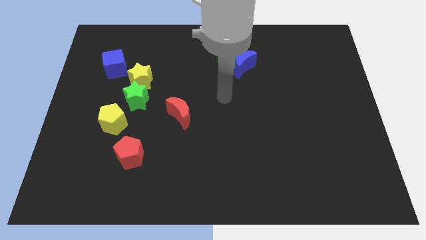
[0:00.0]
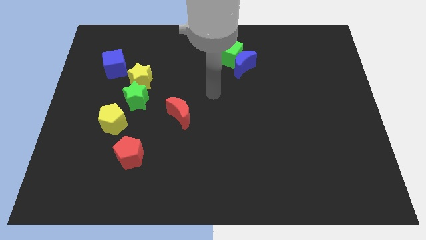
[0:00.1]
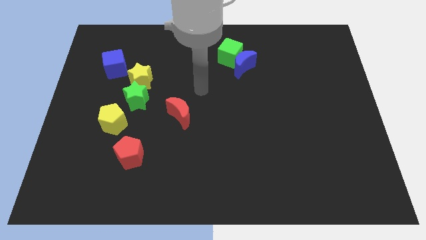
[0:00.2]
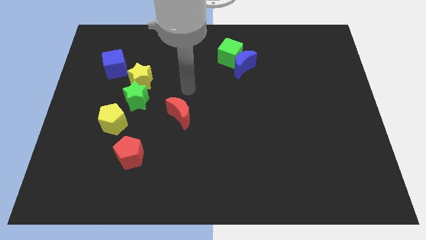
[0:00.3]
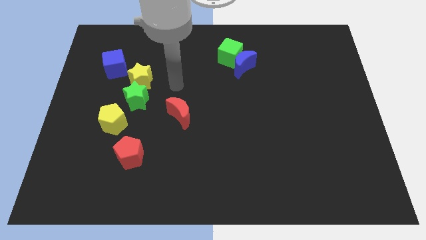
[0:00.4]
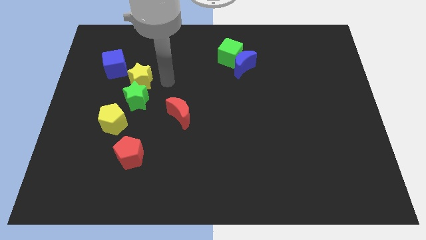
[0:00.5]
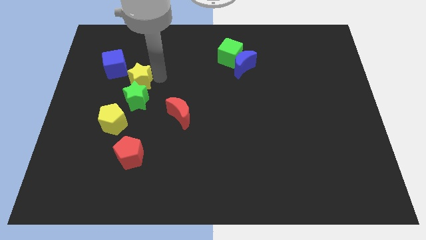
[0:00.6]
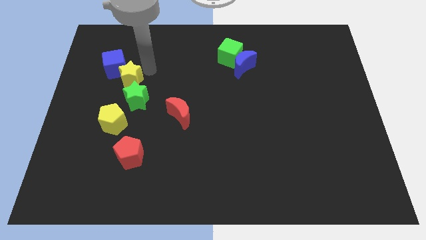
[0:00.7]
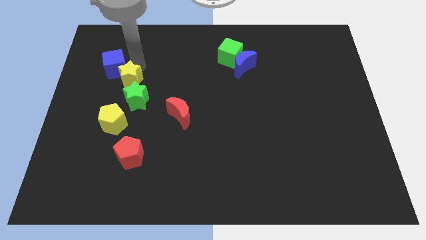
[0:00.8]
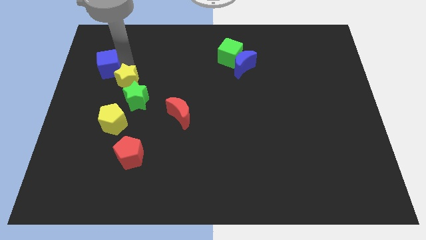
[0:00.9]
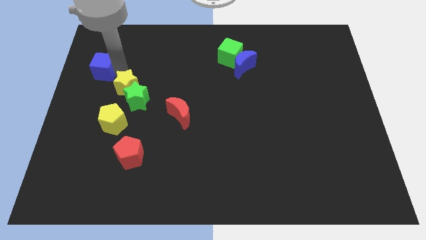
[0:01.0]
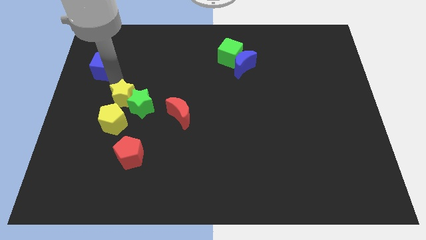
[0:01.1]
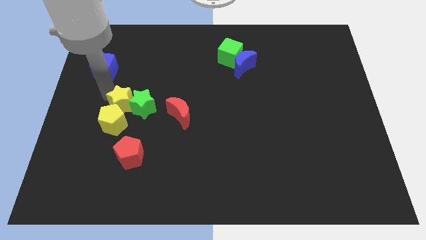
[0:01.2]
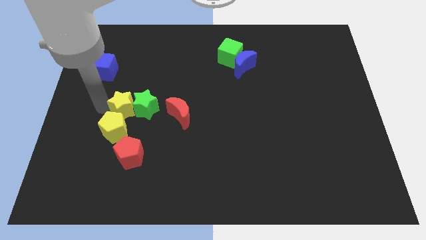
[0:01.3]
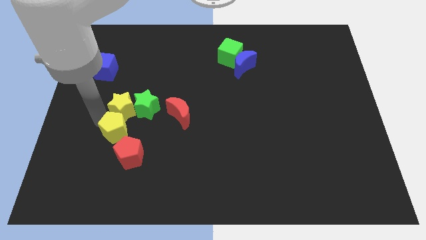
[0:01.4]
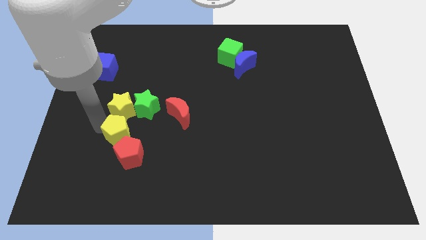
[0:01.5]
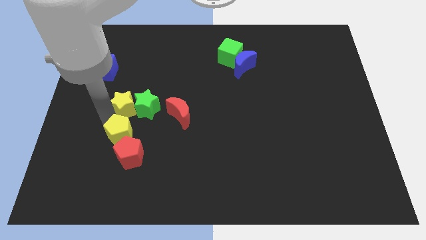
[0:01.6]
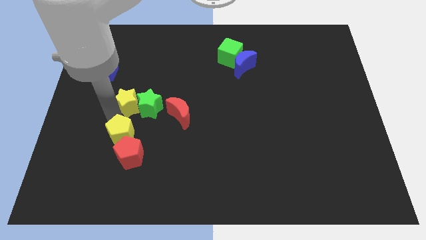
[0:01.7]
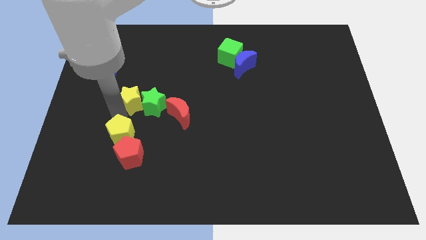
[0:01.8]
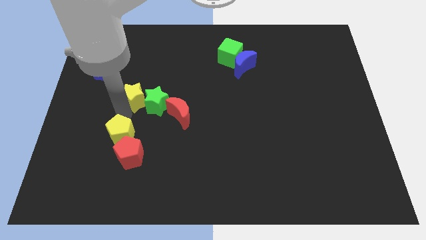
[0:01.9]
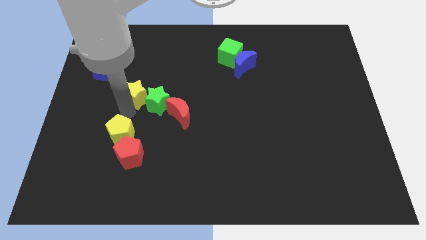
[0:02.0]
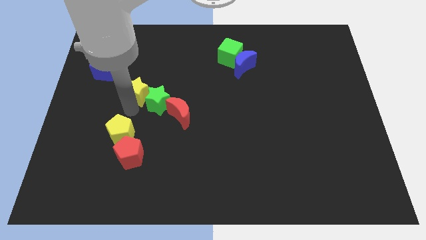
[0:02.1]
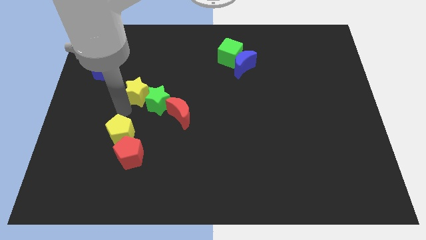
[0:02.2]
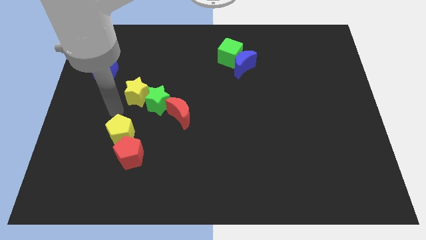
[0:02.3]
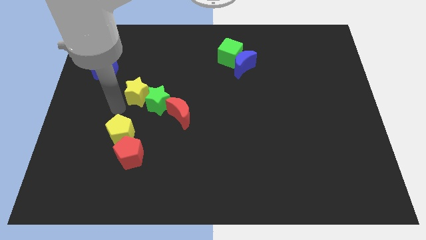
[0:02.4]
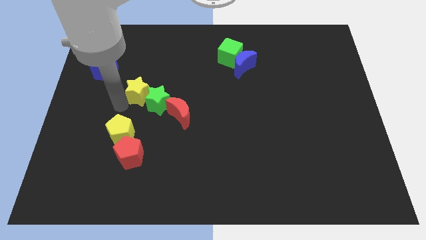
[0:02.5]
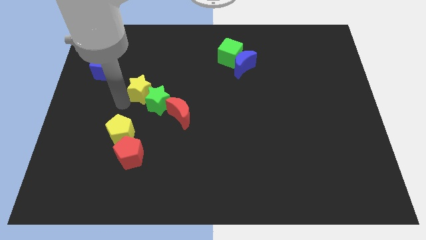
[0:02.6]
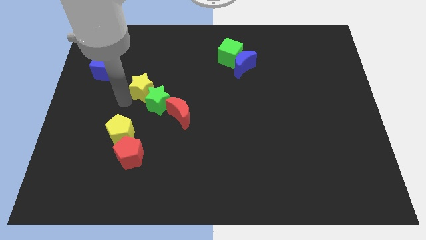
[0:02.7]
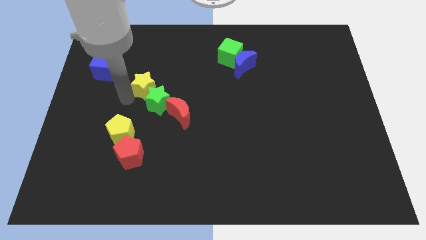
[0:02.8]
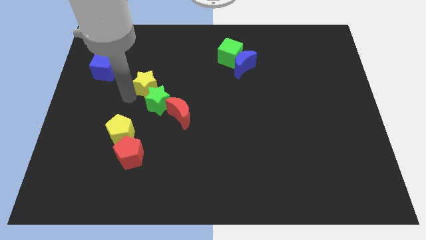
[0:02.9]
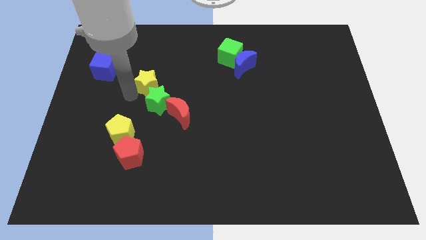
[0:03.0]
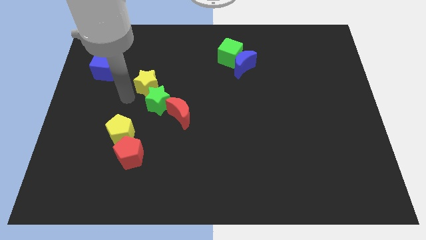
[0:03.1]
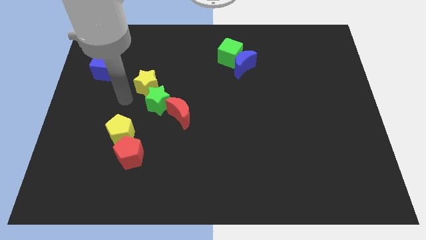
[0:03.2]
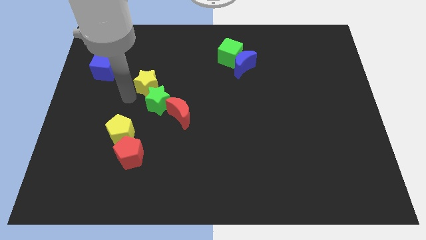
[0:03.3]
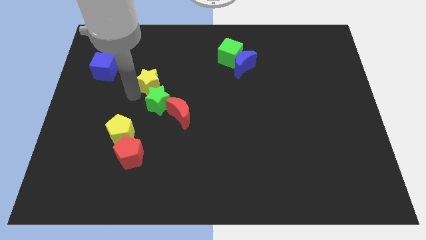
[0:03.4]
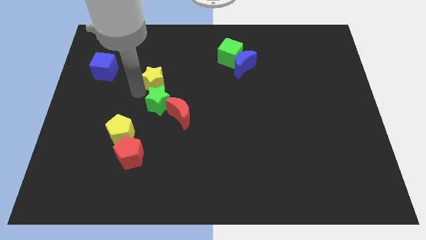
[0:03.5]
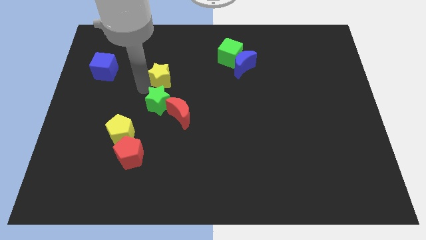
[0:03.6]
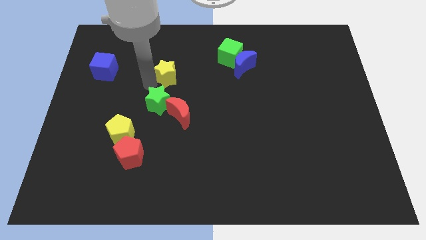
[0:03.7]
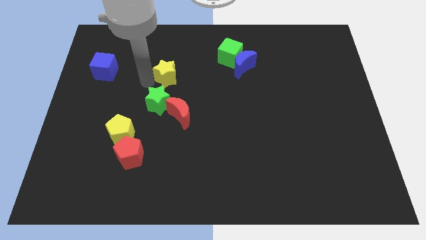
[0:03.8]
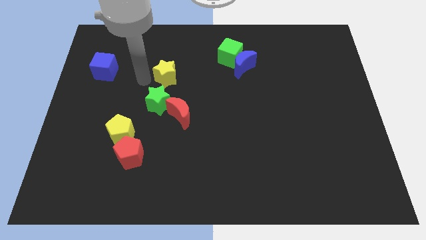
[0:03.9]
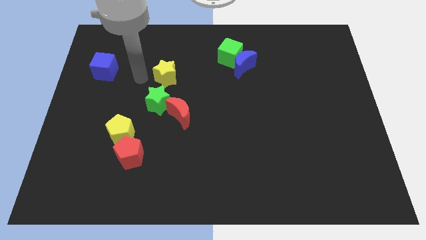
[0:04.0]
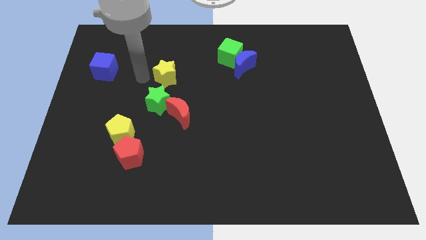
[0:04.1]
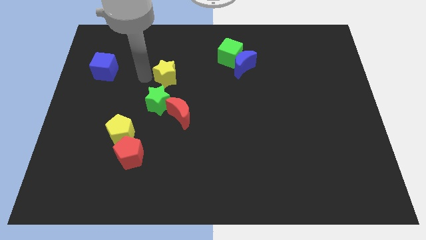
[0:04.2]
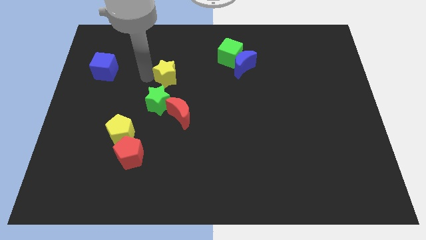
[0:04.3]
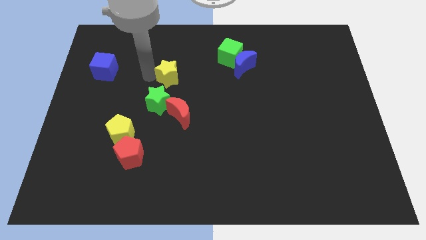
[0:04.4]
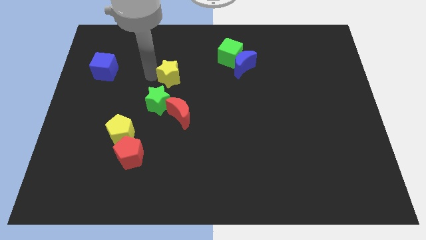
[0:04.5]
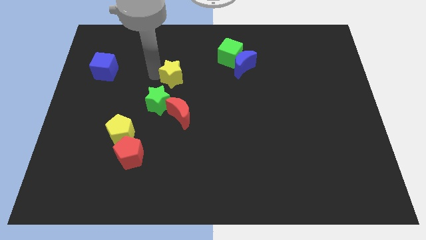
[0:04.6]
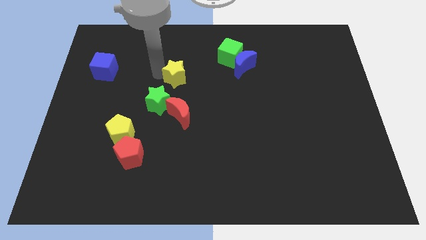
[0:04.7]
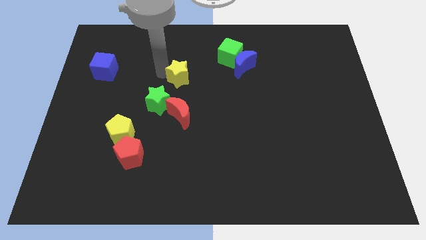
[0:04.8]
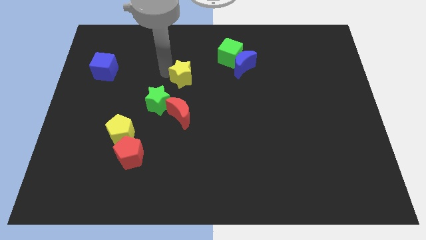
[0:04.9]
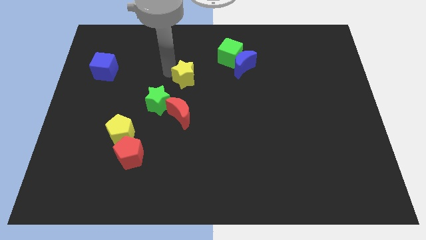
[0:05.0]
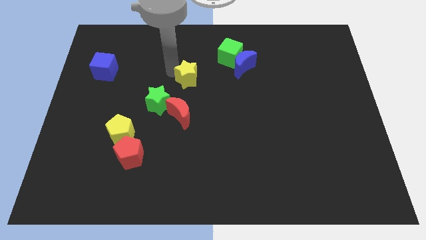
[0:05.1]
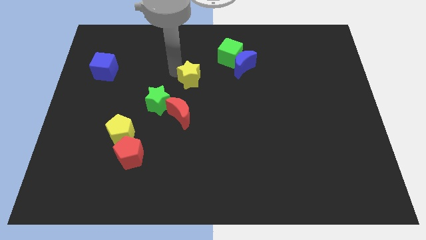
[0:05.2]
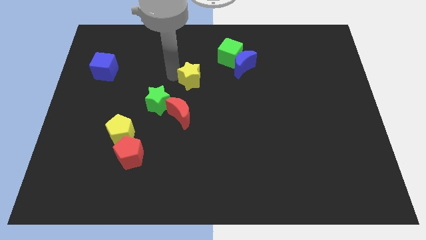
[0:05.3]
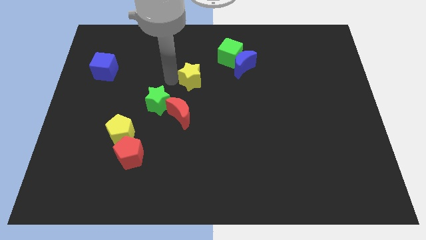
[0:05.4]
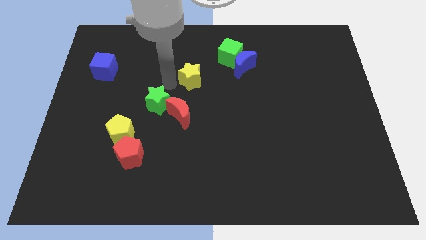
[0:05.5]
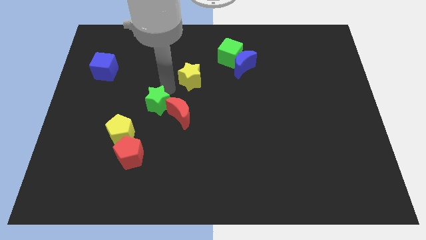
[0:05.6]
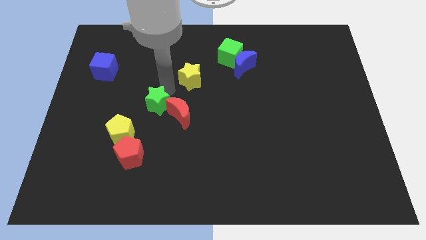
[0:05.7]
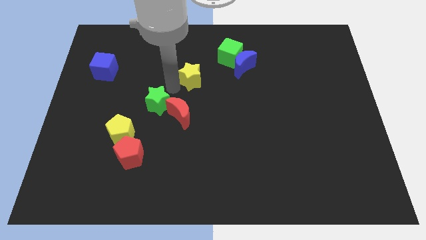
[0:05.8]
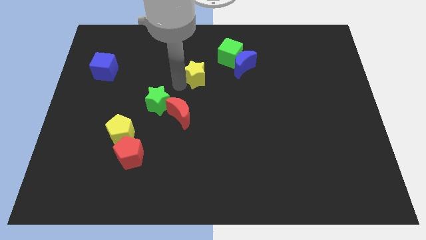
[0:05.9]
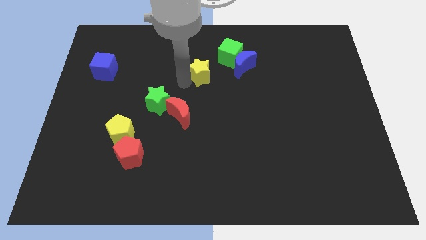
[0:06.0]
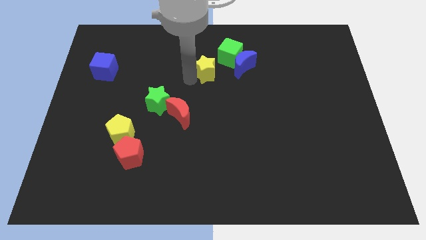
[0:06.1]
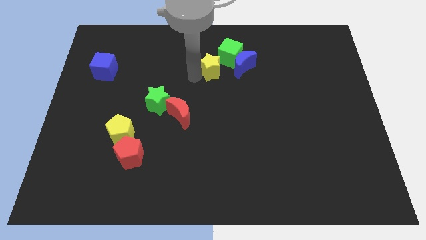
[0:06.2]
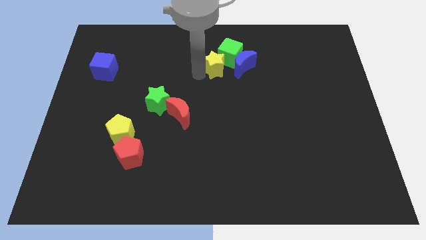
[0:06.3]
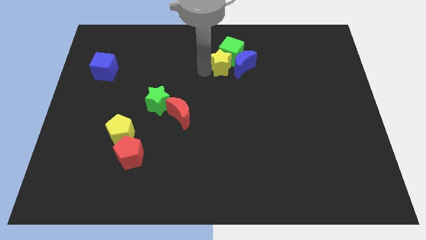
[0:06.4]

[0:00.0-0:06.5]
move the yellow star towards the blue moon

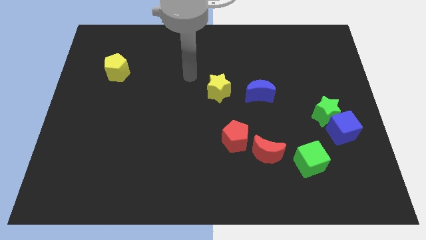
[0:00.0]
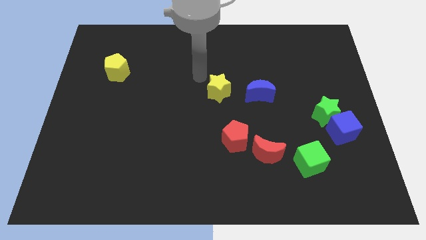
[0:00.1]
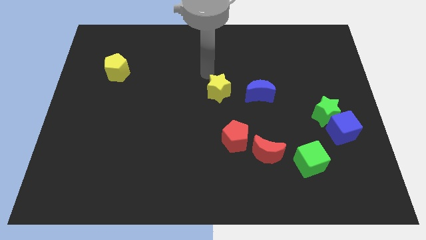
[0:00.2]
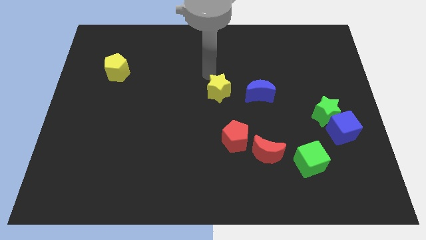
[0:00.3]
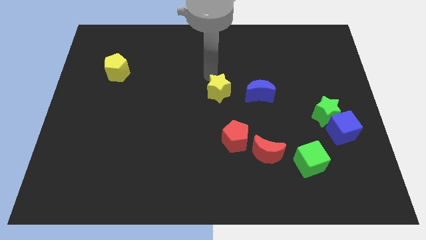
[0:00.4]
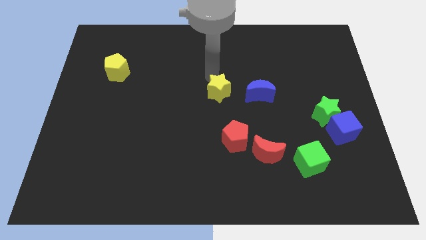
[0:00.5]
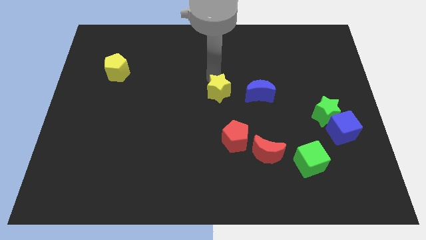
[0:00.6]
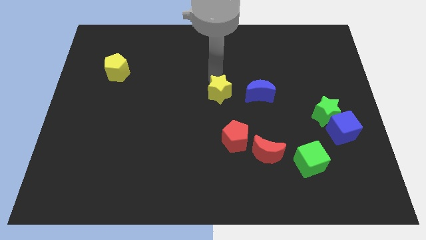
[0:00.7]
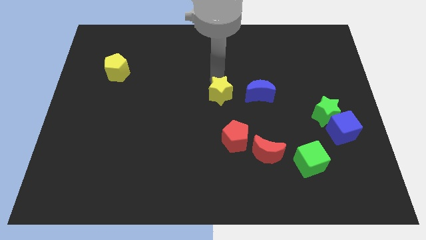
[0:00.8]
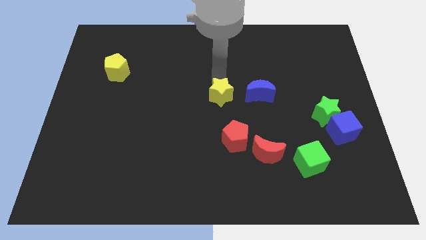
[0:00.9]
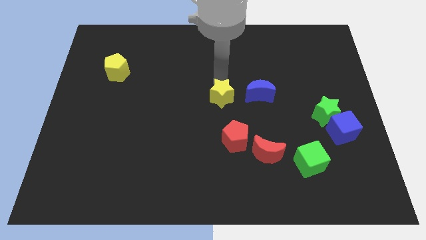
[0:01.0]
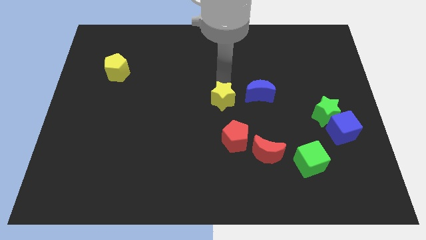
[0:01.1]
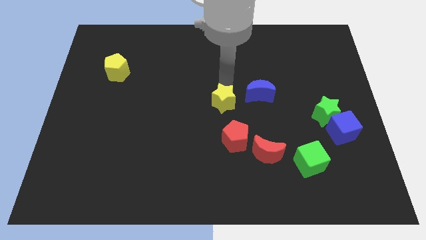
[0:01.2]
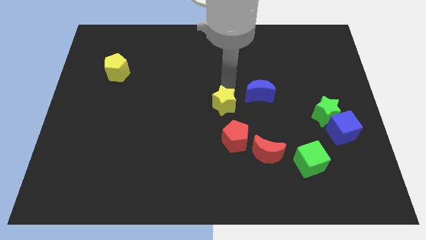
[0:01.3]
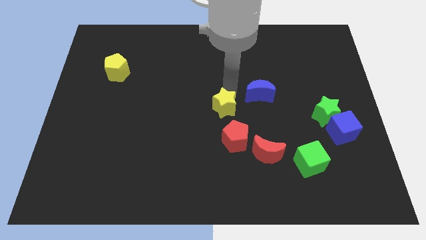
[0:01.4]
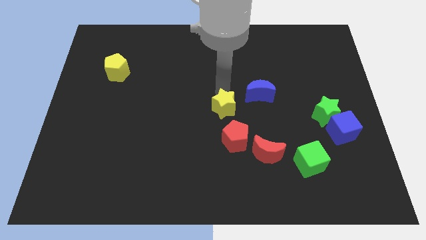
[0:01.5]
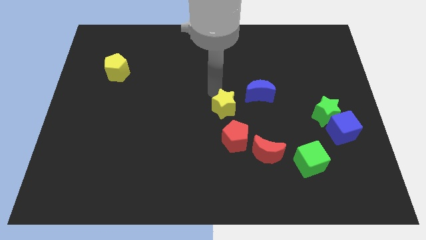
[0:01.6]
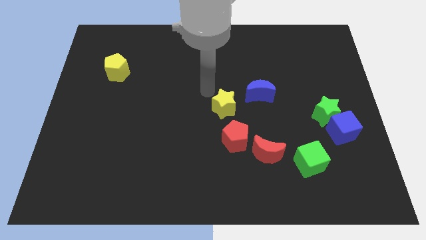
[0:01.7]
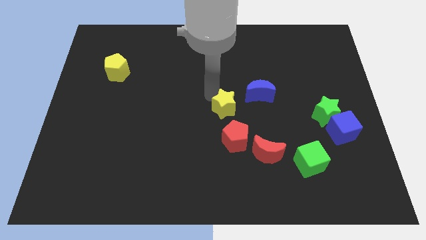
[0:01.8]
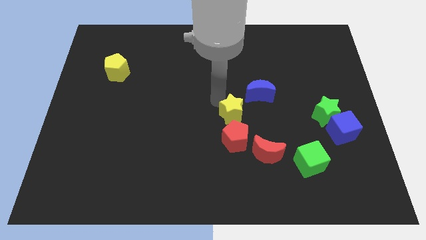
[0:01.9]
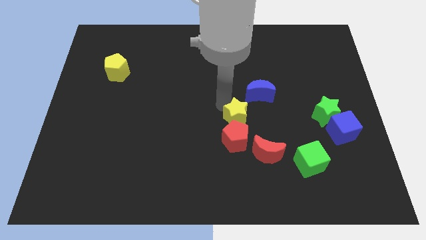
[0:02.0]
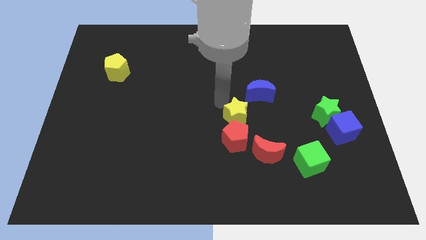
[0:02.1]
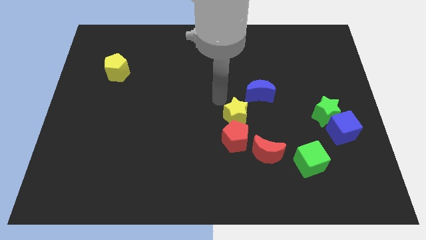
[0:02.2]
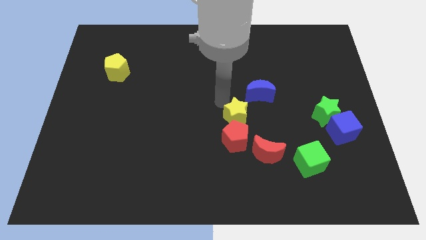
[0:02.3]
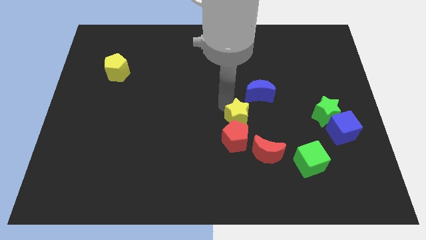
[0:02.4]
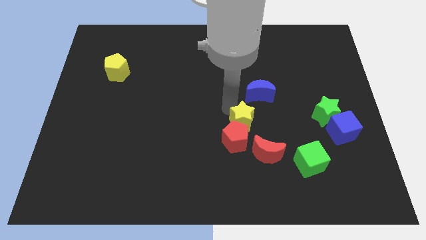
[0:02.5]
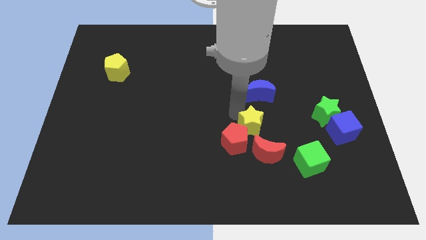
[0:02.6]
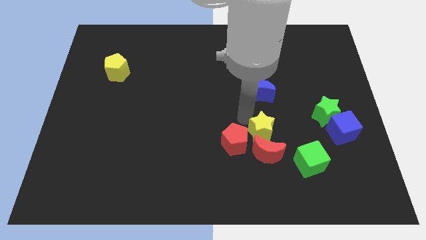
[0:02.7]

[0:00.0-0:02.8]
move the yellow star next to the red moon
